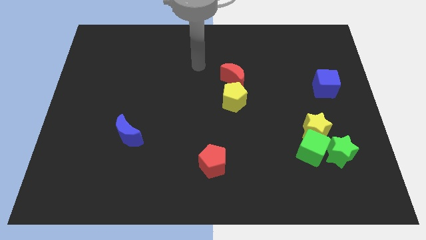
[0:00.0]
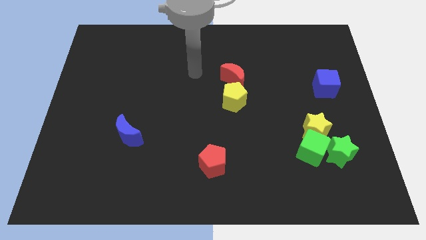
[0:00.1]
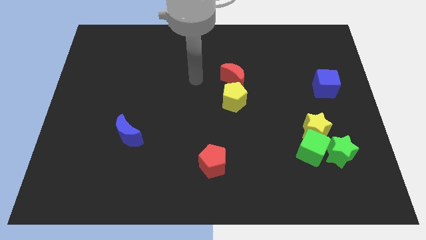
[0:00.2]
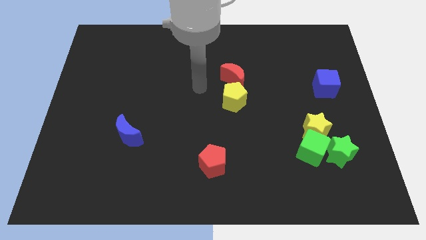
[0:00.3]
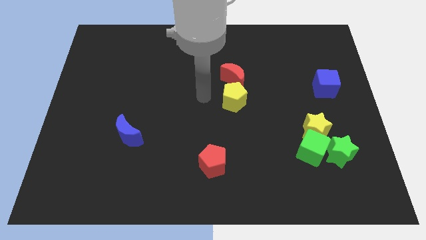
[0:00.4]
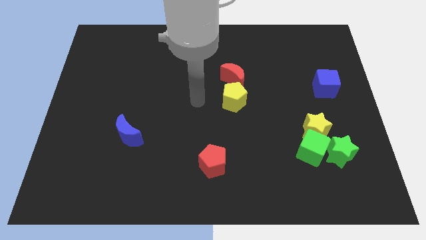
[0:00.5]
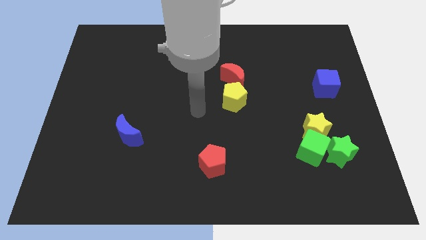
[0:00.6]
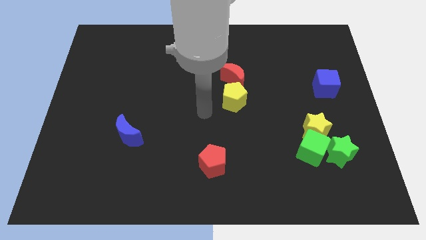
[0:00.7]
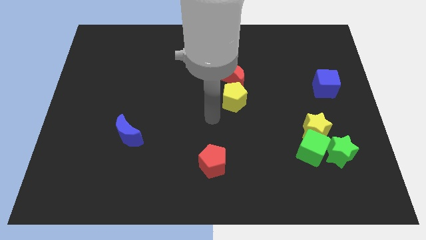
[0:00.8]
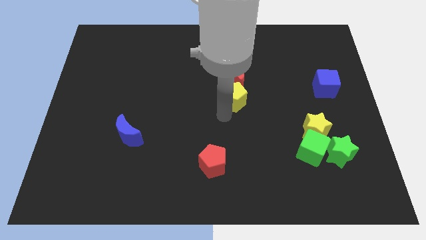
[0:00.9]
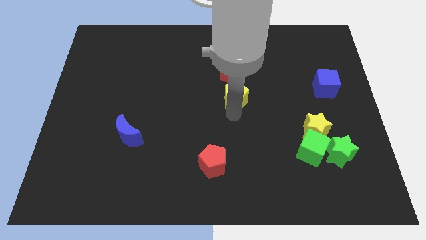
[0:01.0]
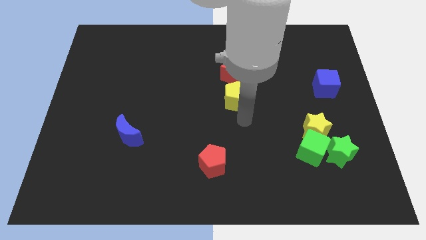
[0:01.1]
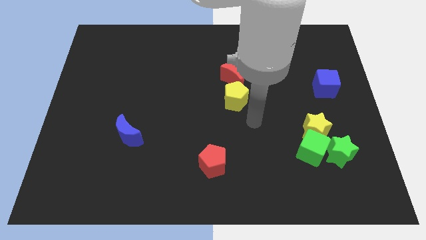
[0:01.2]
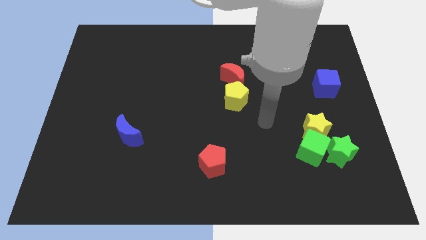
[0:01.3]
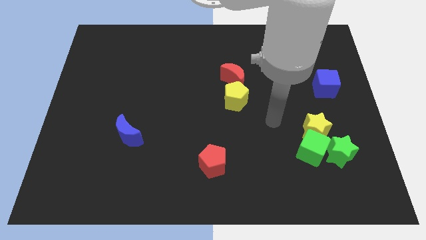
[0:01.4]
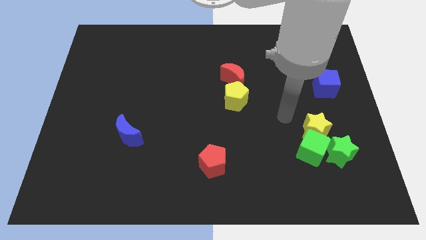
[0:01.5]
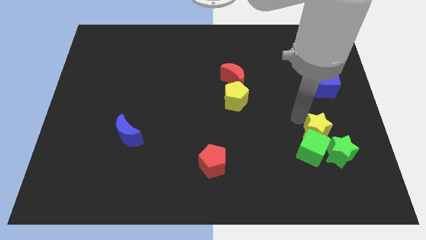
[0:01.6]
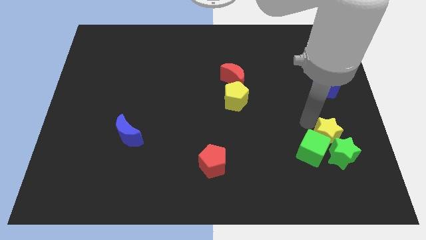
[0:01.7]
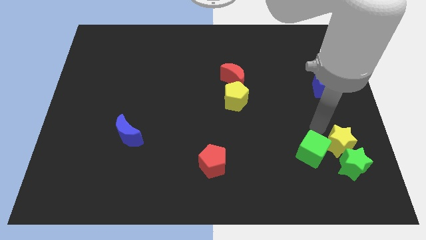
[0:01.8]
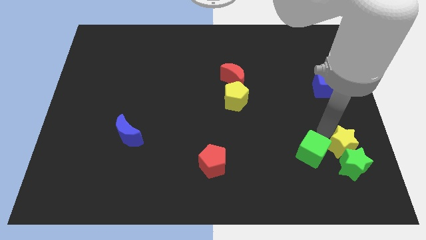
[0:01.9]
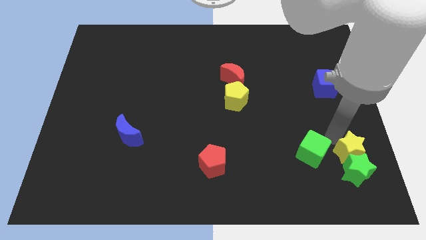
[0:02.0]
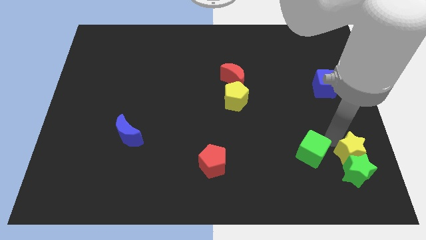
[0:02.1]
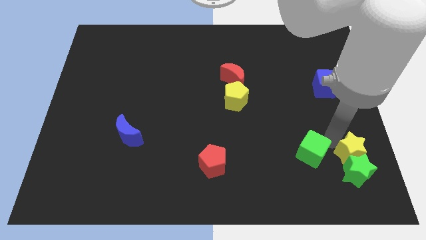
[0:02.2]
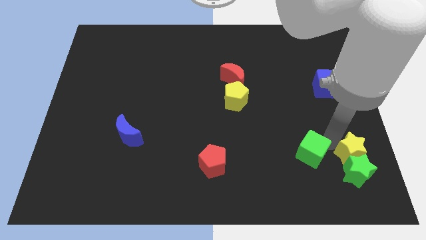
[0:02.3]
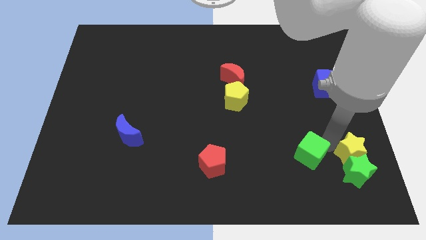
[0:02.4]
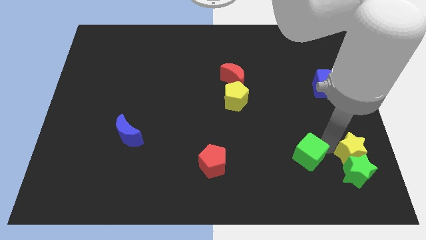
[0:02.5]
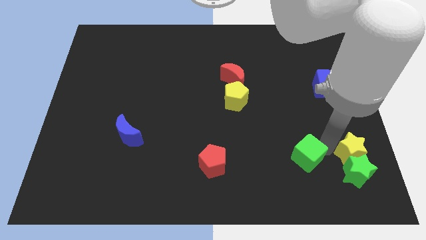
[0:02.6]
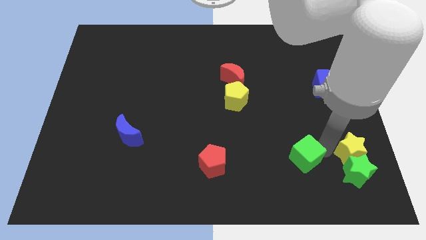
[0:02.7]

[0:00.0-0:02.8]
separate the green cube from the yellow star and green star

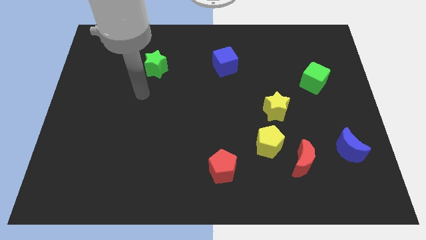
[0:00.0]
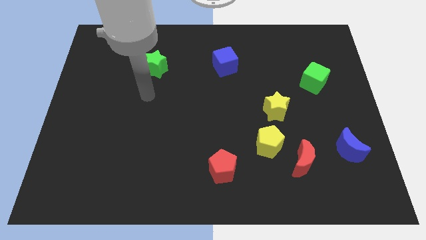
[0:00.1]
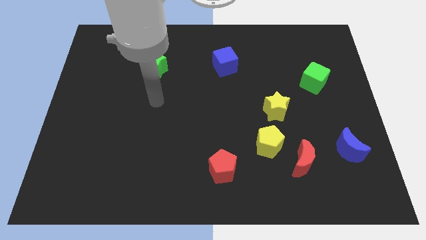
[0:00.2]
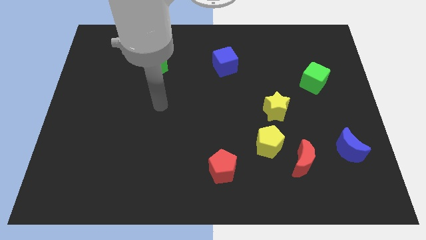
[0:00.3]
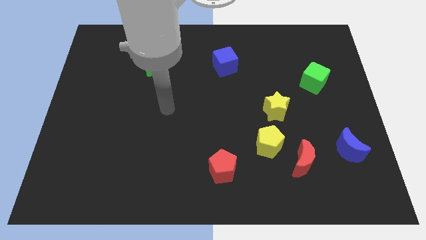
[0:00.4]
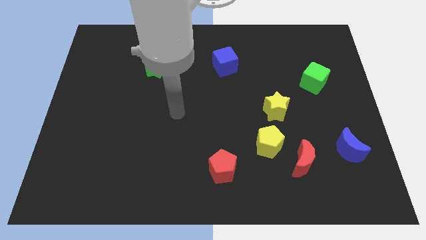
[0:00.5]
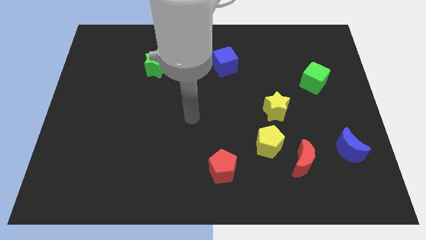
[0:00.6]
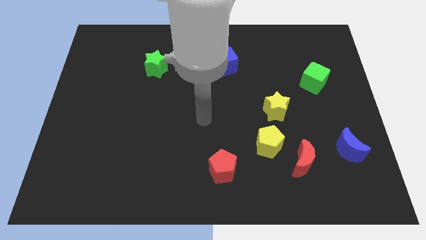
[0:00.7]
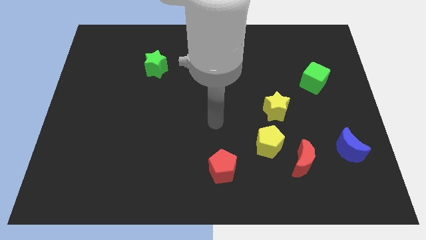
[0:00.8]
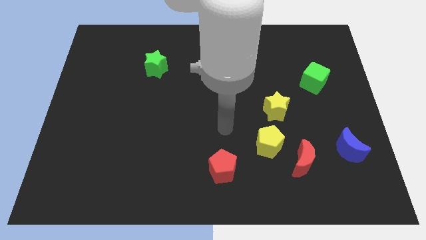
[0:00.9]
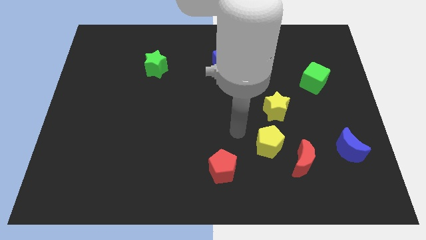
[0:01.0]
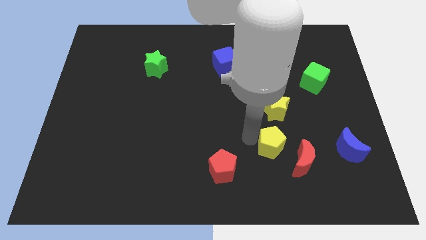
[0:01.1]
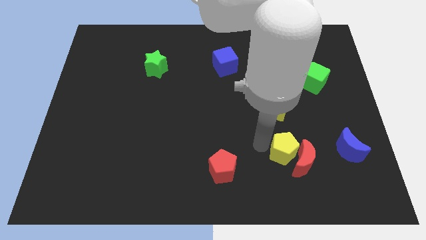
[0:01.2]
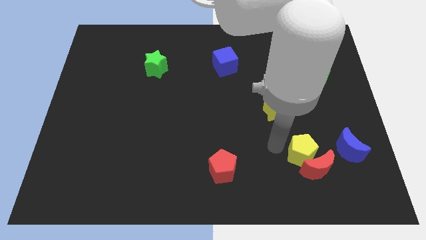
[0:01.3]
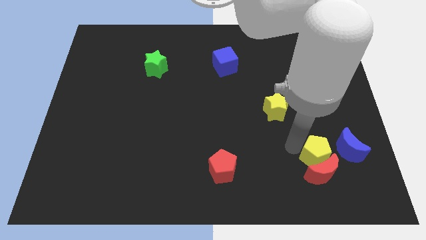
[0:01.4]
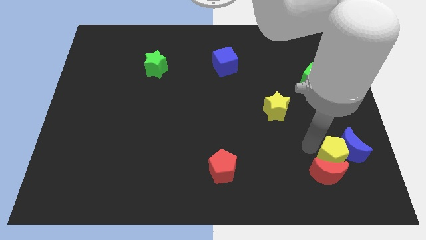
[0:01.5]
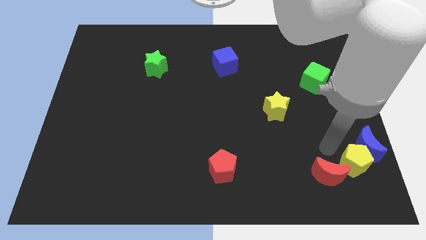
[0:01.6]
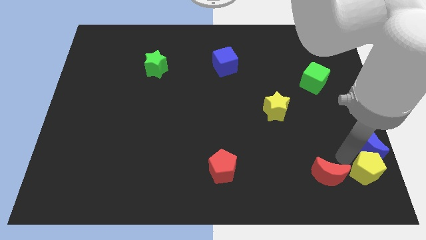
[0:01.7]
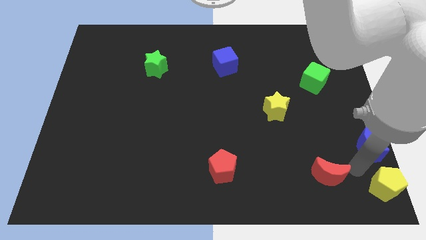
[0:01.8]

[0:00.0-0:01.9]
pull the red moon apart from the yellow pentagon

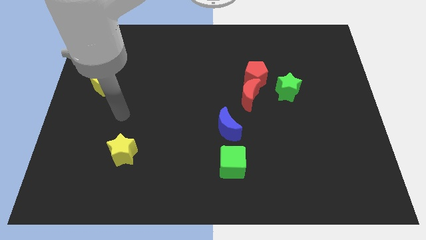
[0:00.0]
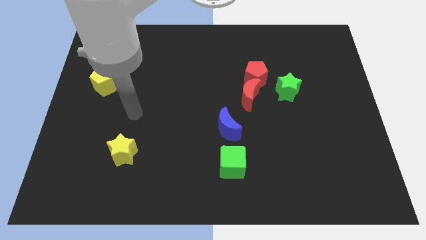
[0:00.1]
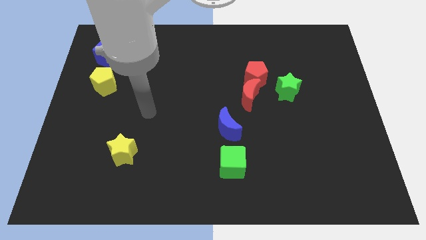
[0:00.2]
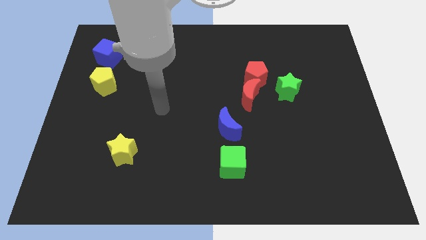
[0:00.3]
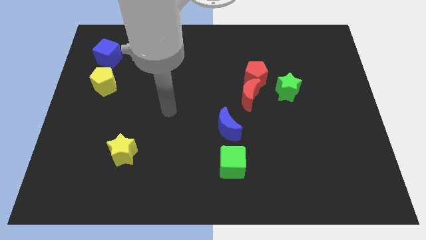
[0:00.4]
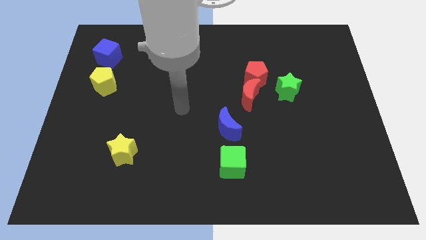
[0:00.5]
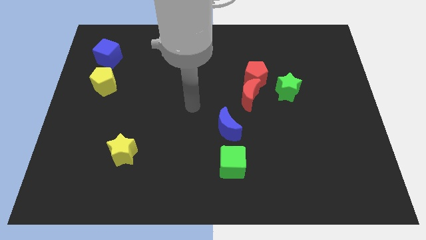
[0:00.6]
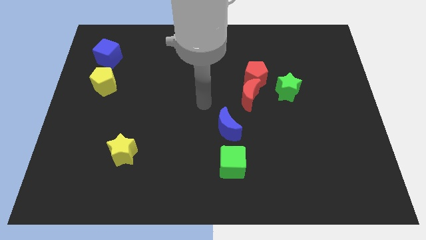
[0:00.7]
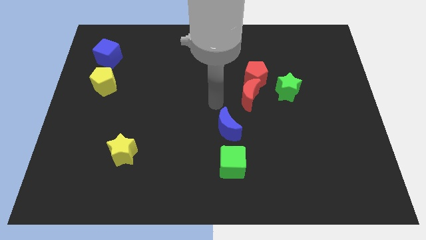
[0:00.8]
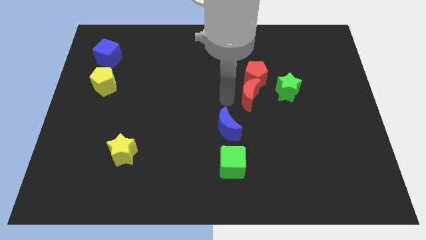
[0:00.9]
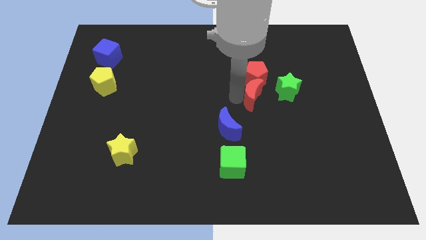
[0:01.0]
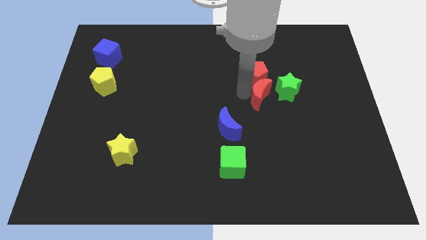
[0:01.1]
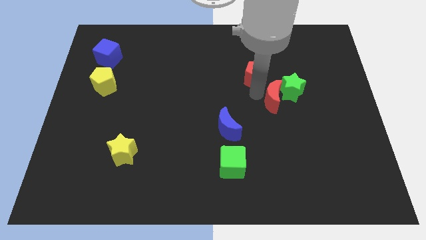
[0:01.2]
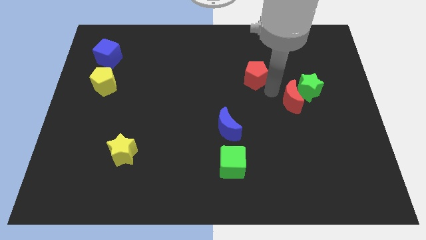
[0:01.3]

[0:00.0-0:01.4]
pull the red pentagon apart from the red moon and green star

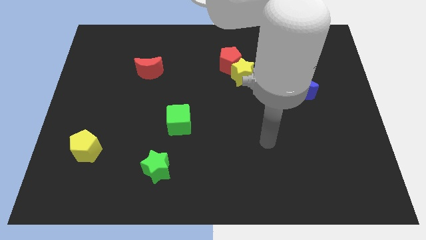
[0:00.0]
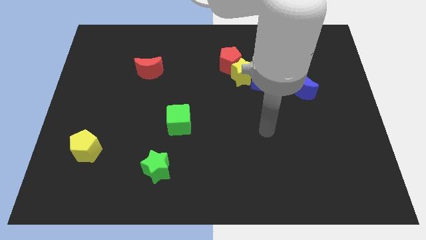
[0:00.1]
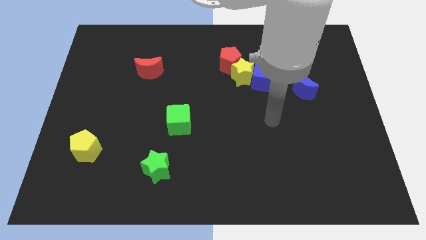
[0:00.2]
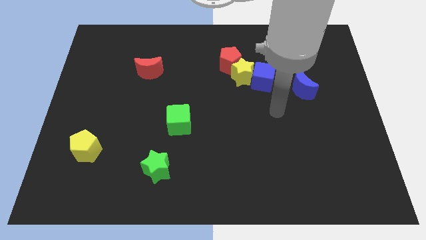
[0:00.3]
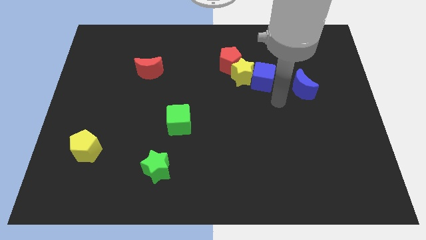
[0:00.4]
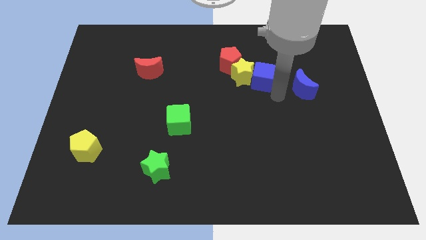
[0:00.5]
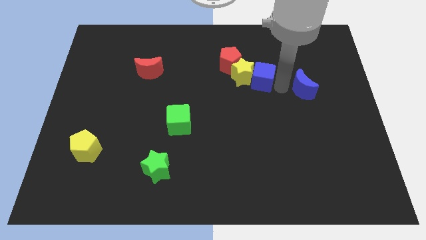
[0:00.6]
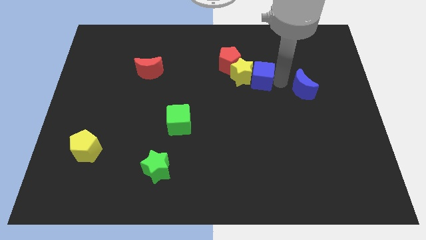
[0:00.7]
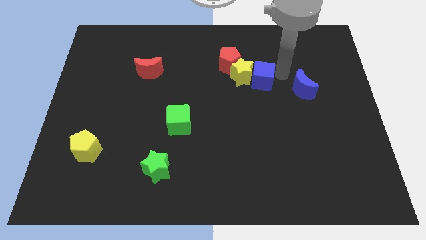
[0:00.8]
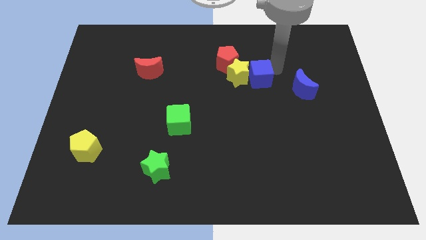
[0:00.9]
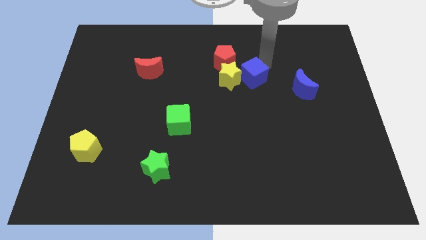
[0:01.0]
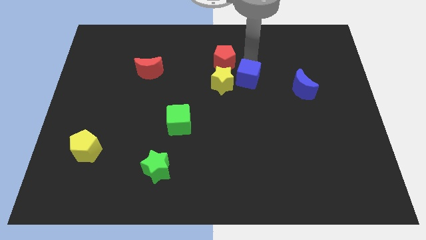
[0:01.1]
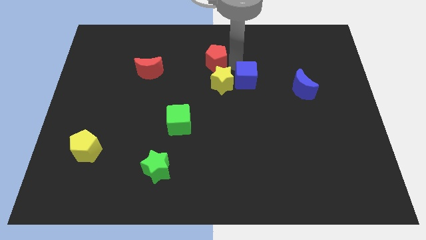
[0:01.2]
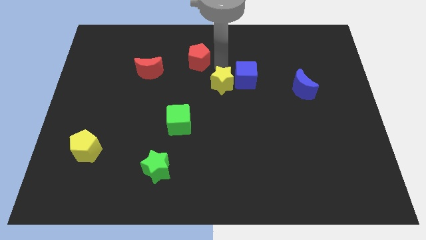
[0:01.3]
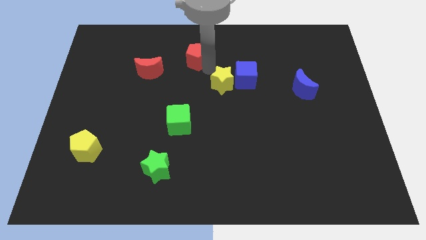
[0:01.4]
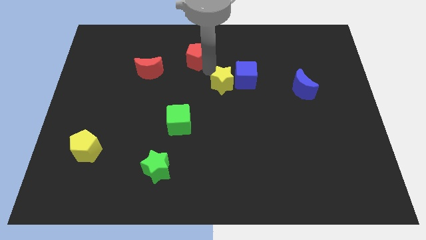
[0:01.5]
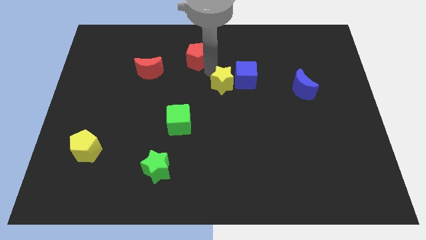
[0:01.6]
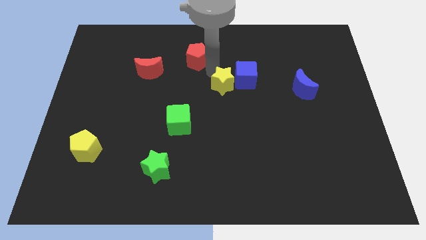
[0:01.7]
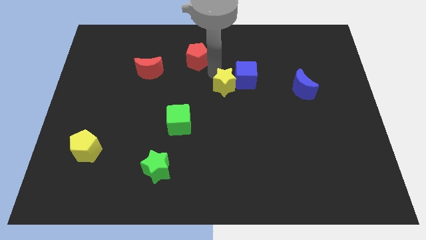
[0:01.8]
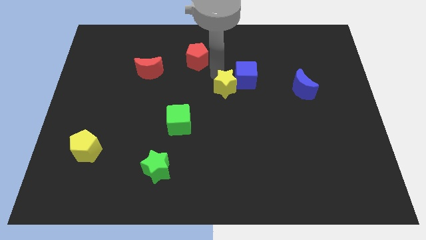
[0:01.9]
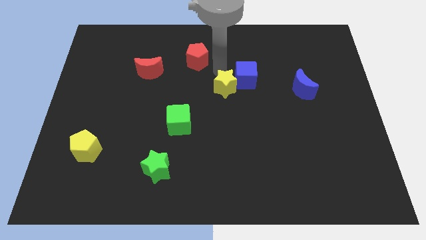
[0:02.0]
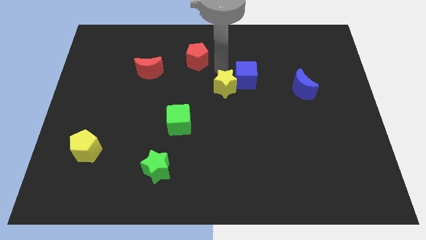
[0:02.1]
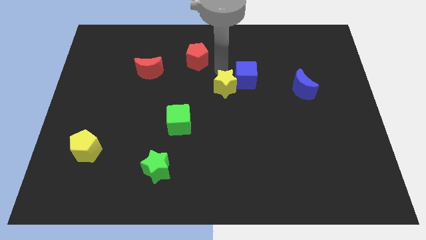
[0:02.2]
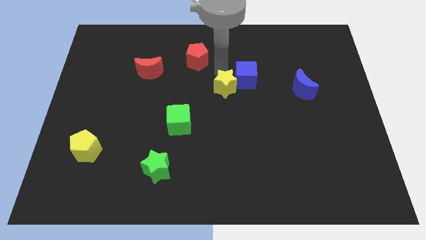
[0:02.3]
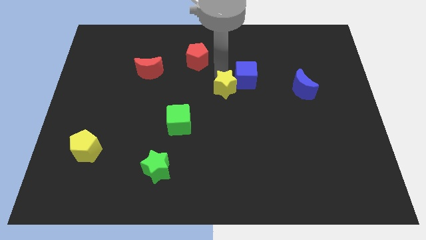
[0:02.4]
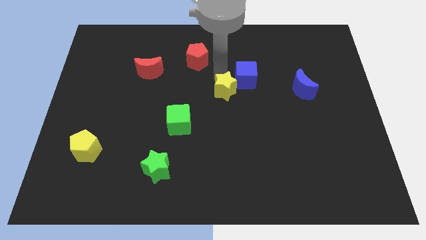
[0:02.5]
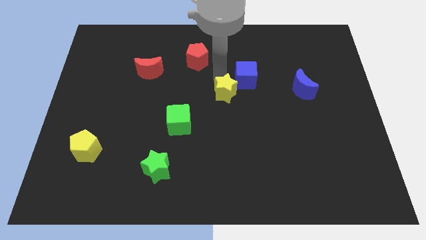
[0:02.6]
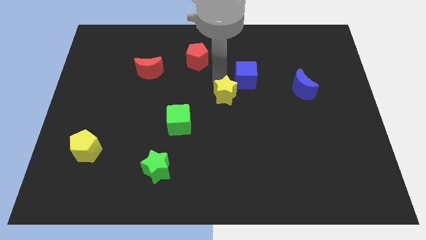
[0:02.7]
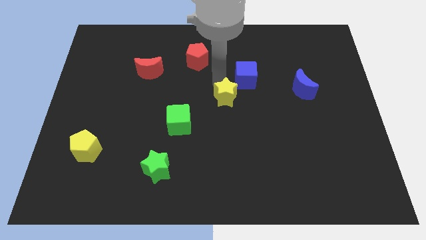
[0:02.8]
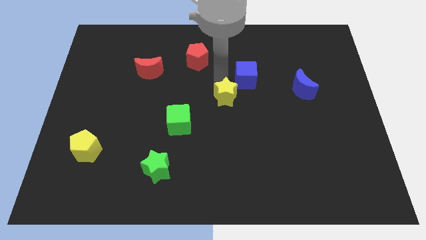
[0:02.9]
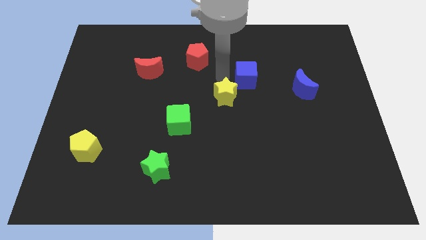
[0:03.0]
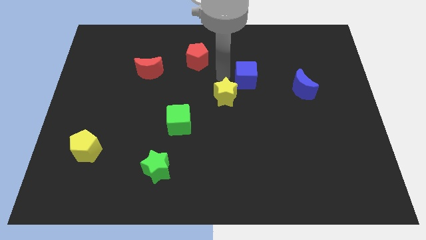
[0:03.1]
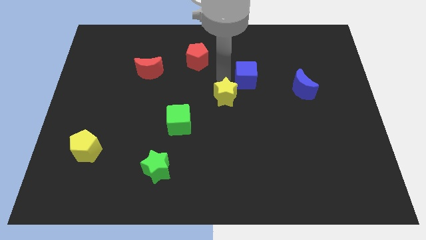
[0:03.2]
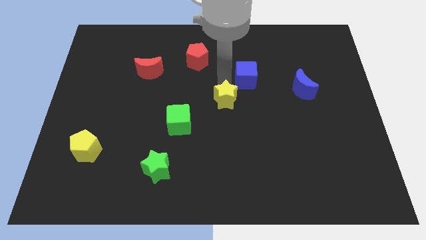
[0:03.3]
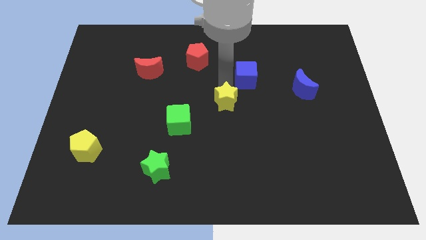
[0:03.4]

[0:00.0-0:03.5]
pull the yellow star apart from the blue cube and red pentagon
